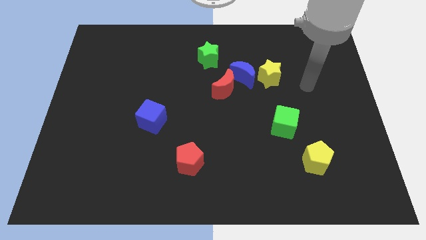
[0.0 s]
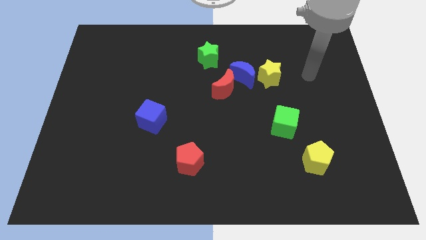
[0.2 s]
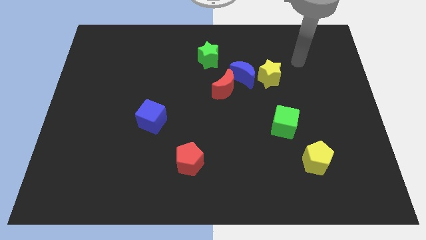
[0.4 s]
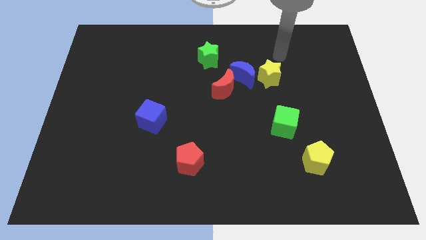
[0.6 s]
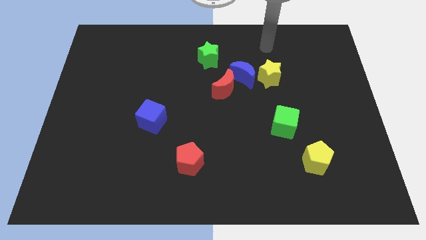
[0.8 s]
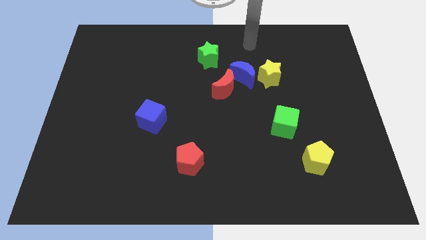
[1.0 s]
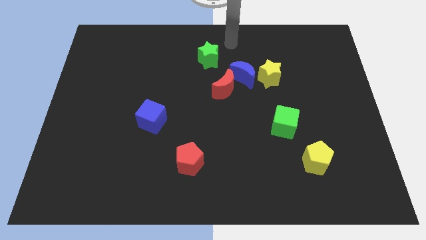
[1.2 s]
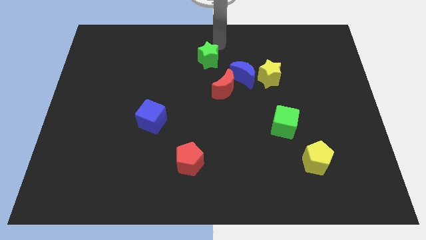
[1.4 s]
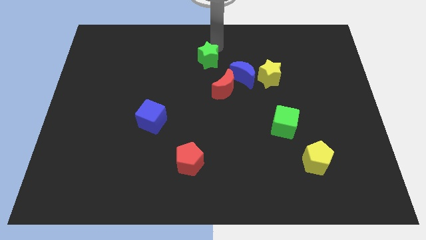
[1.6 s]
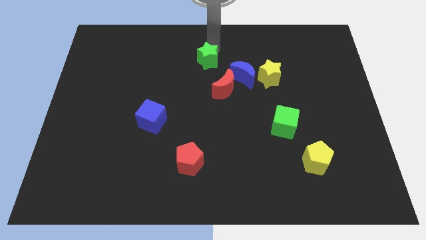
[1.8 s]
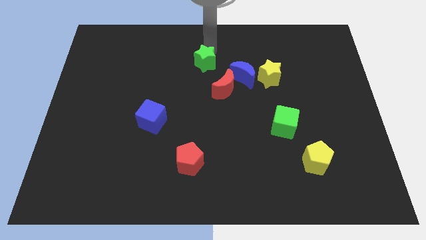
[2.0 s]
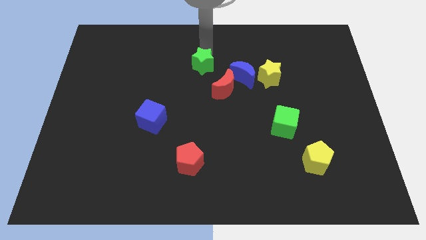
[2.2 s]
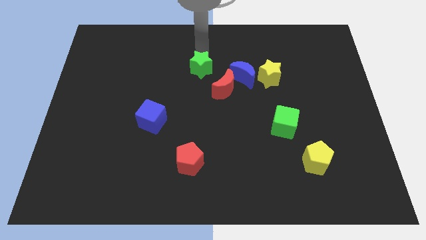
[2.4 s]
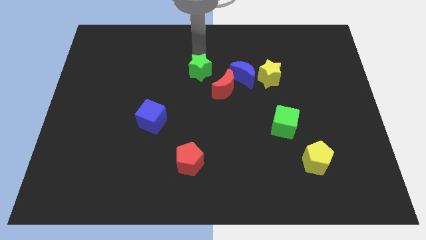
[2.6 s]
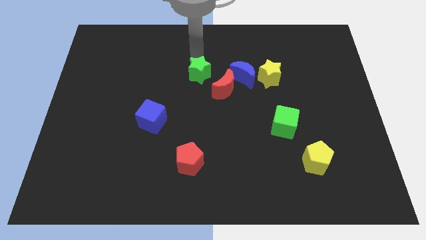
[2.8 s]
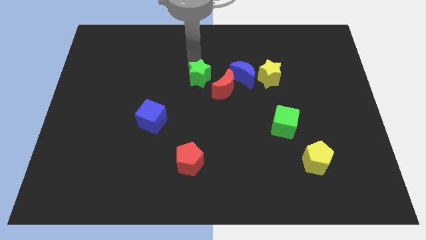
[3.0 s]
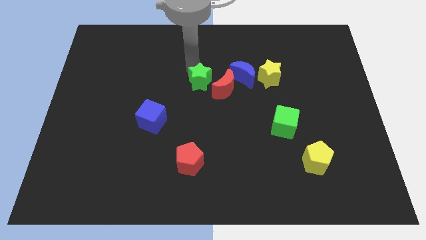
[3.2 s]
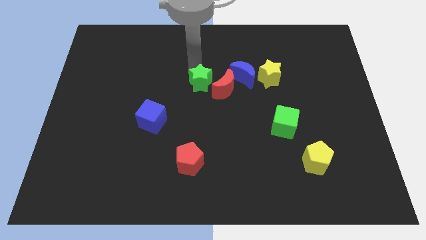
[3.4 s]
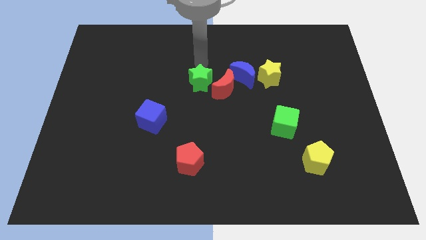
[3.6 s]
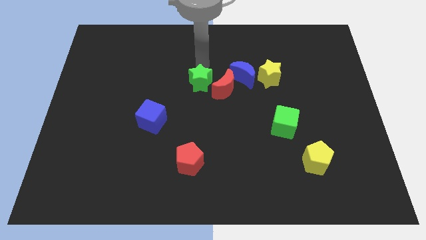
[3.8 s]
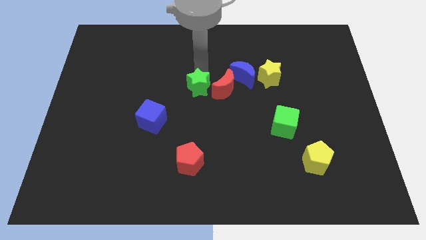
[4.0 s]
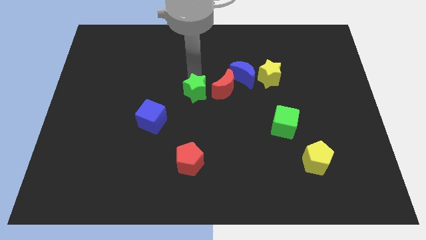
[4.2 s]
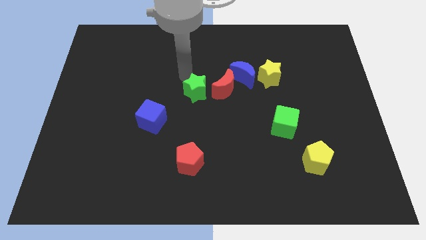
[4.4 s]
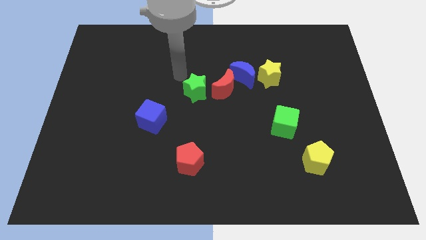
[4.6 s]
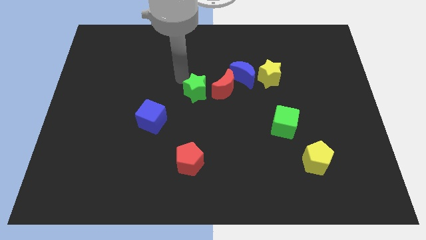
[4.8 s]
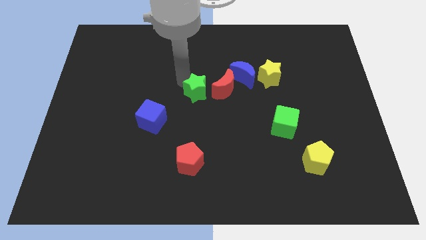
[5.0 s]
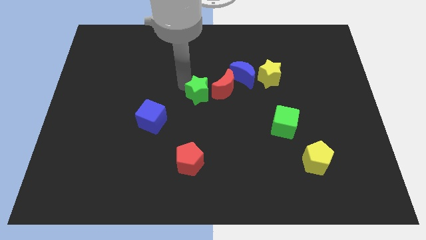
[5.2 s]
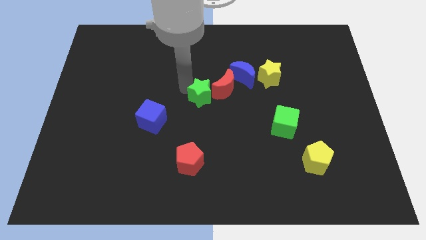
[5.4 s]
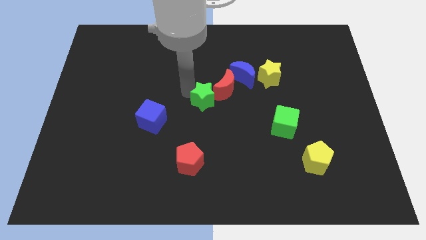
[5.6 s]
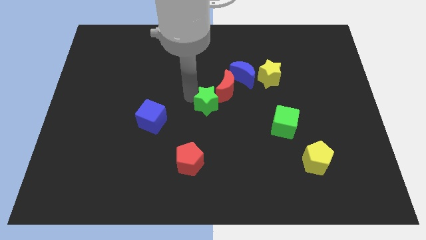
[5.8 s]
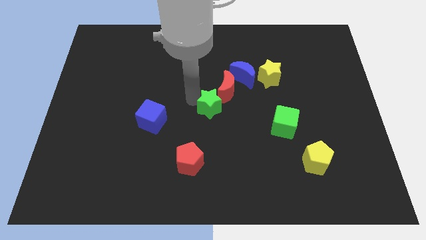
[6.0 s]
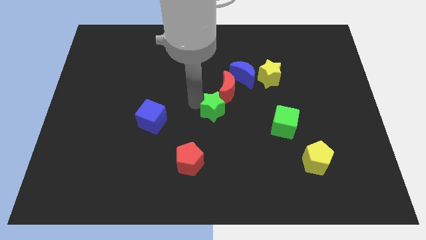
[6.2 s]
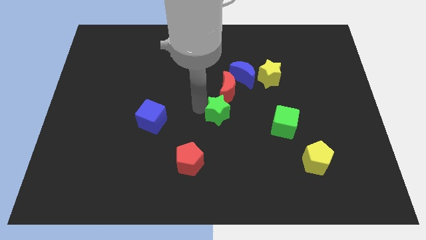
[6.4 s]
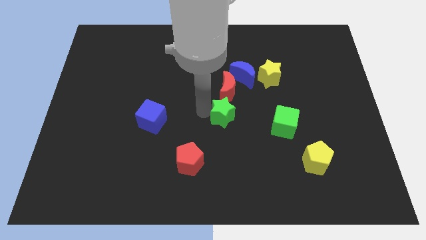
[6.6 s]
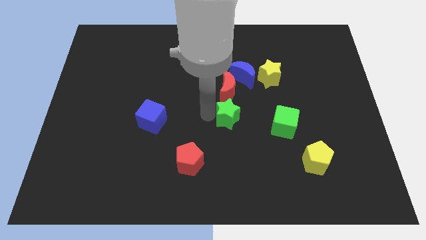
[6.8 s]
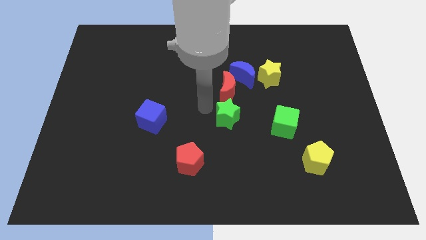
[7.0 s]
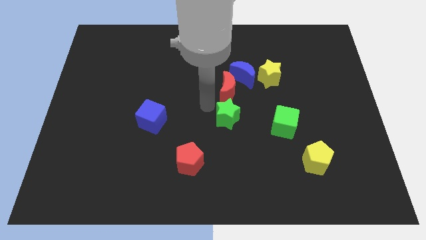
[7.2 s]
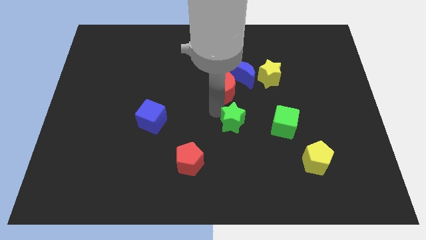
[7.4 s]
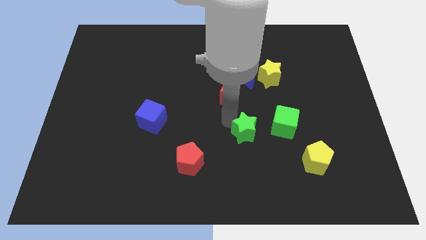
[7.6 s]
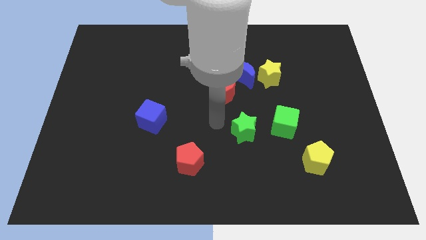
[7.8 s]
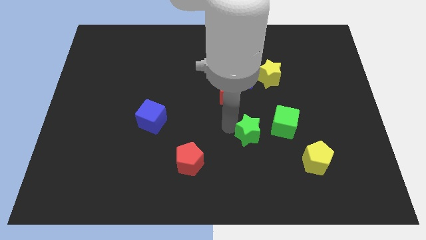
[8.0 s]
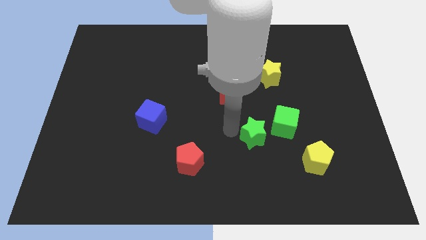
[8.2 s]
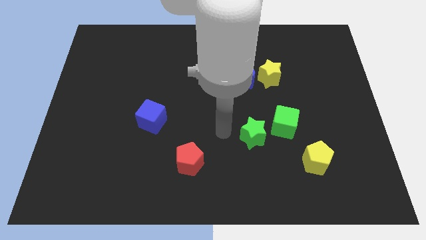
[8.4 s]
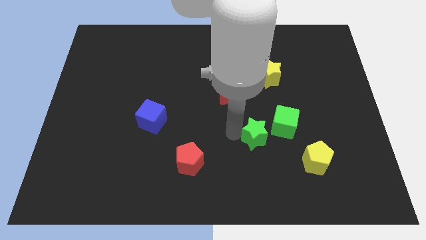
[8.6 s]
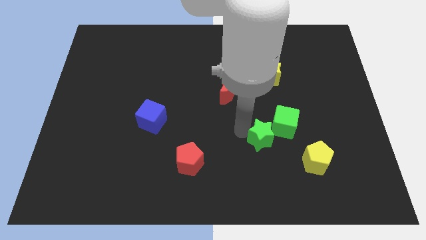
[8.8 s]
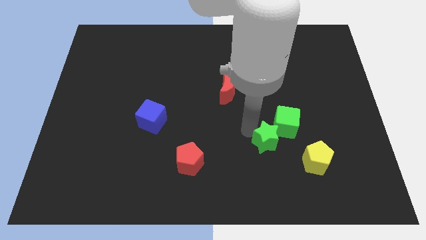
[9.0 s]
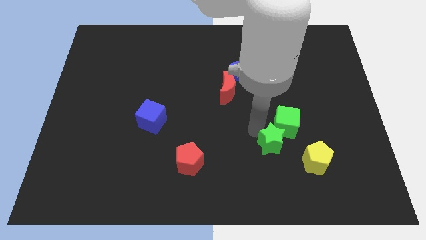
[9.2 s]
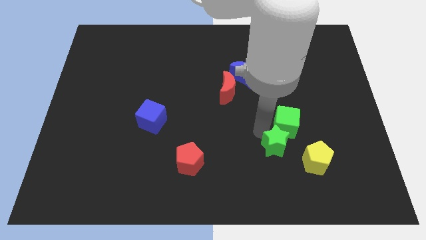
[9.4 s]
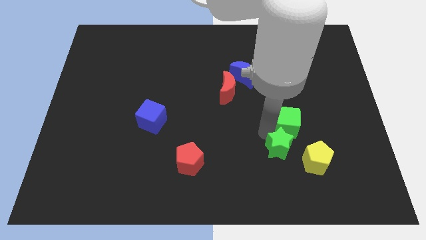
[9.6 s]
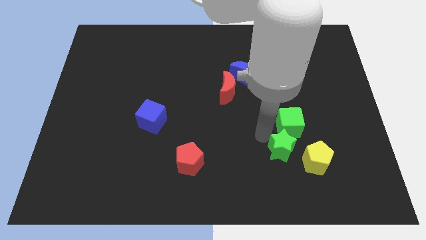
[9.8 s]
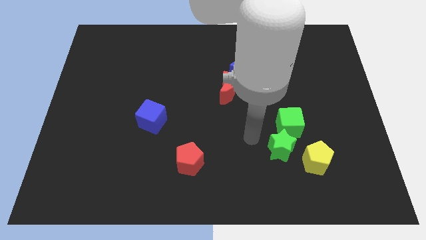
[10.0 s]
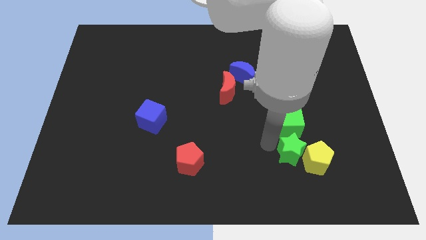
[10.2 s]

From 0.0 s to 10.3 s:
put the green star to the yellow pentagon

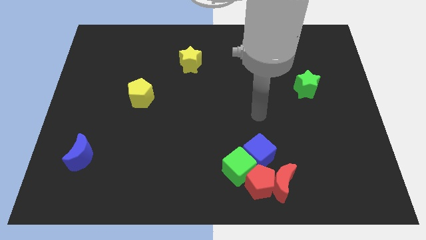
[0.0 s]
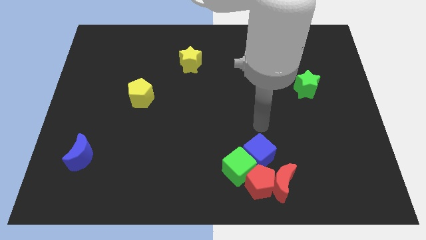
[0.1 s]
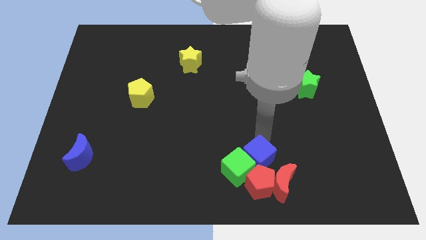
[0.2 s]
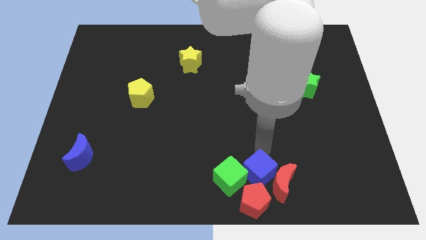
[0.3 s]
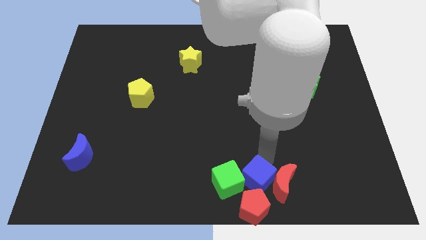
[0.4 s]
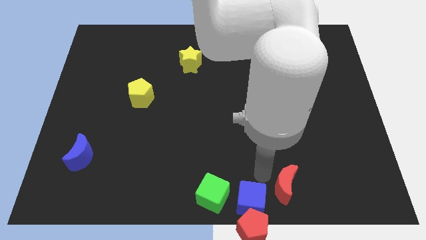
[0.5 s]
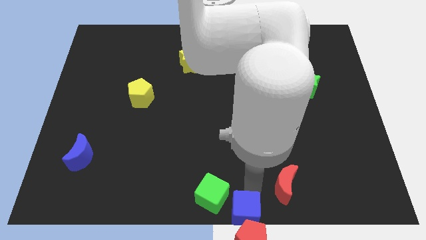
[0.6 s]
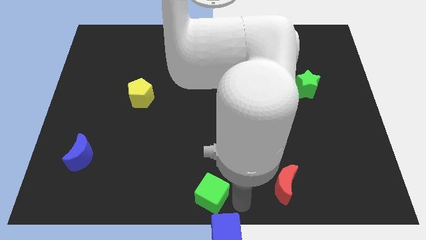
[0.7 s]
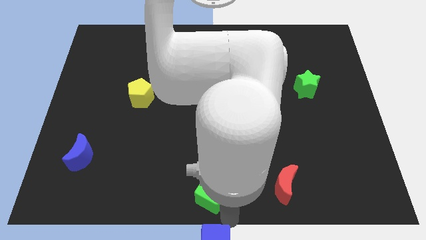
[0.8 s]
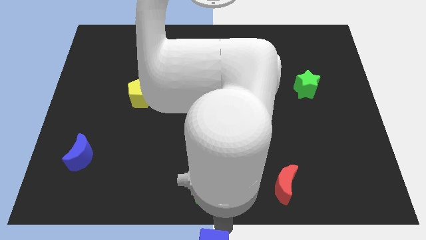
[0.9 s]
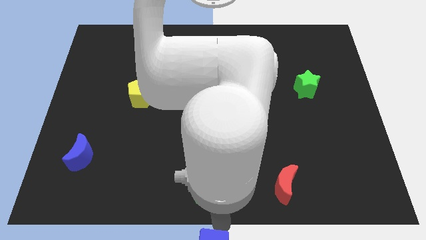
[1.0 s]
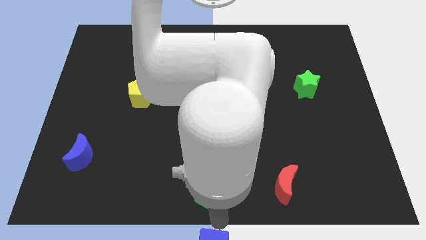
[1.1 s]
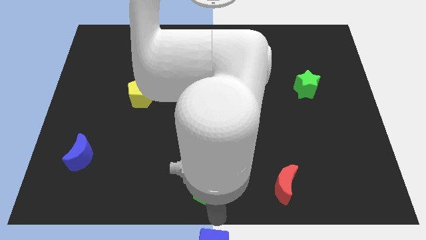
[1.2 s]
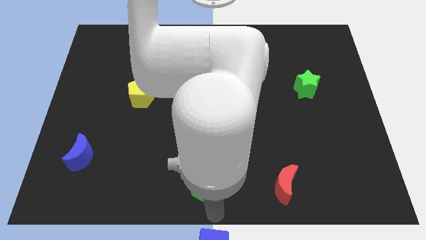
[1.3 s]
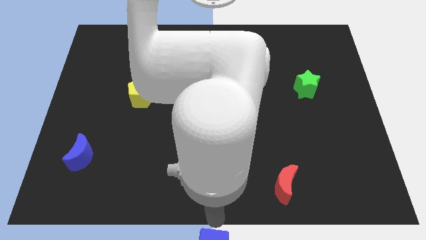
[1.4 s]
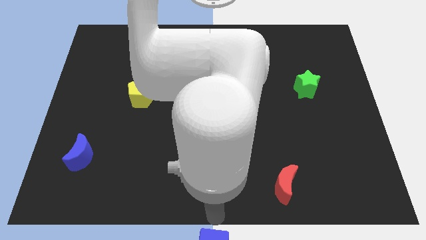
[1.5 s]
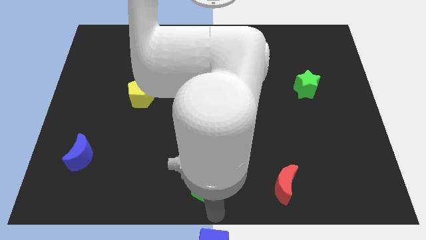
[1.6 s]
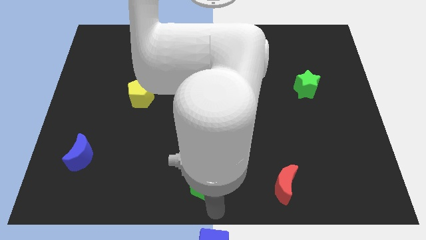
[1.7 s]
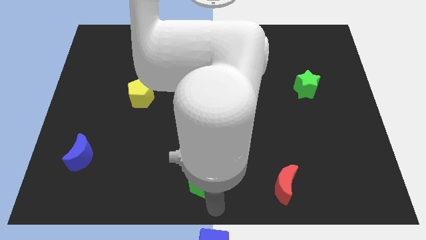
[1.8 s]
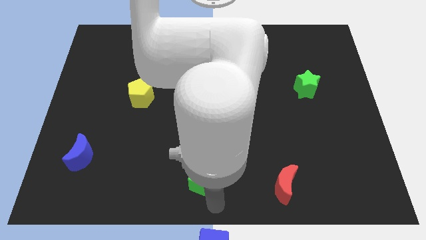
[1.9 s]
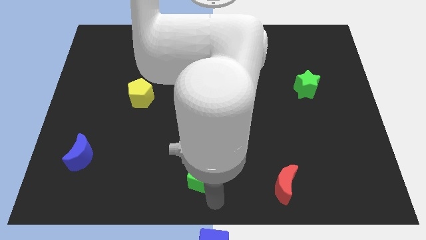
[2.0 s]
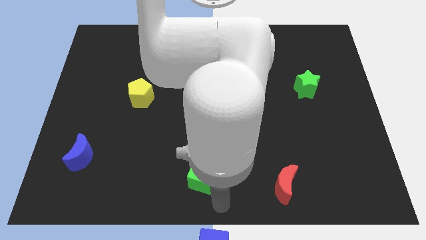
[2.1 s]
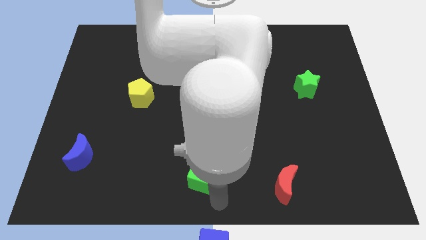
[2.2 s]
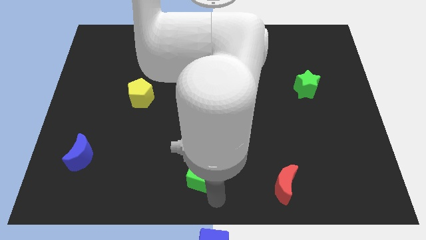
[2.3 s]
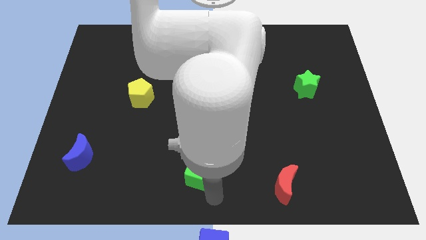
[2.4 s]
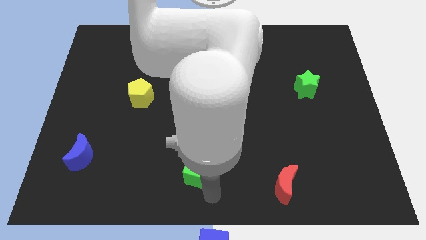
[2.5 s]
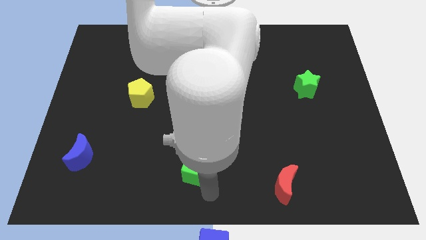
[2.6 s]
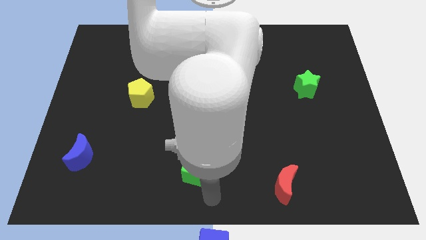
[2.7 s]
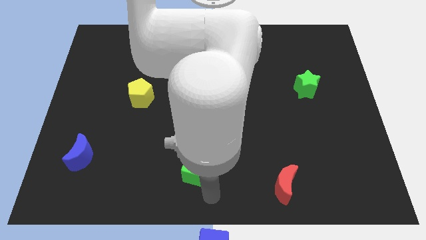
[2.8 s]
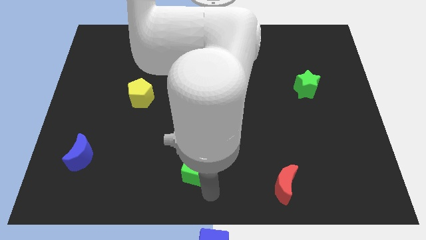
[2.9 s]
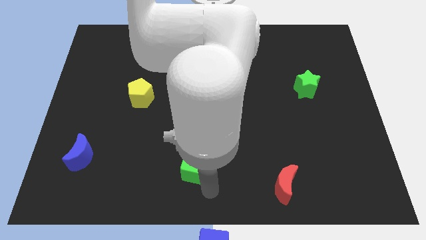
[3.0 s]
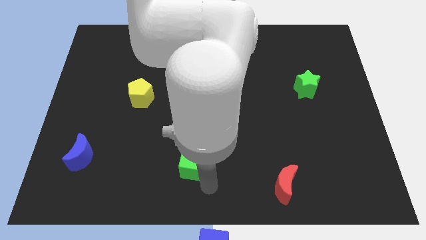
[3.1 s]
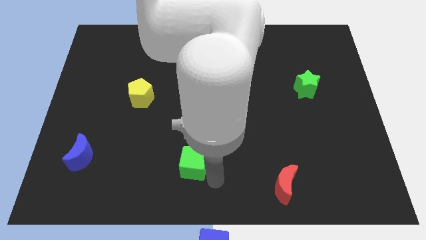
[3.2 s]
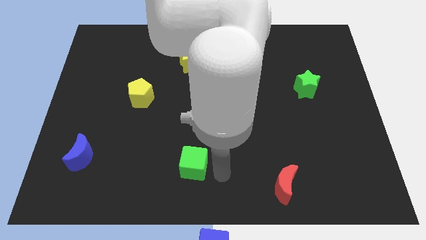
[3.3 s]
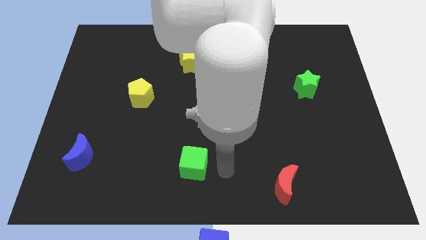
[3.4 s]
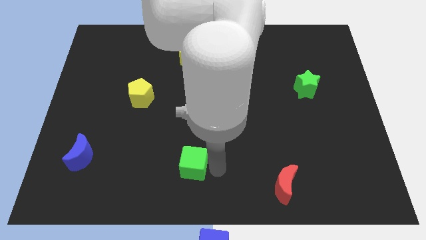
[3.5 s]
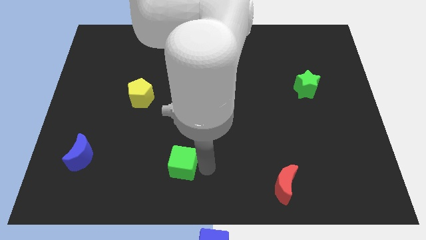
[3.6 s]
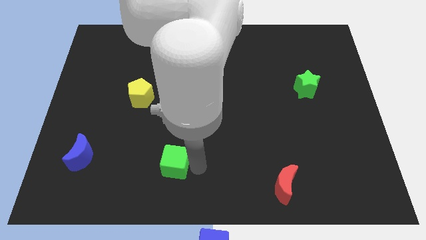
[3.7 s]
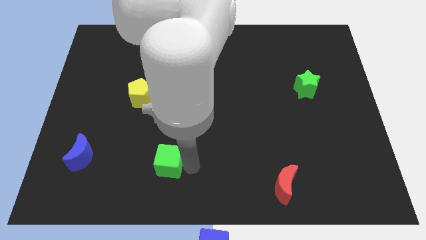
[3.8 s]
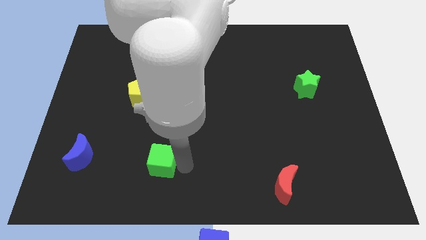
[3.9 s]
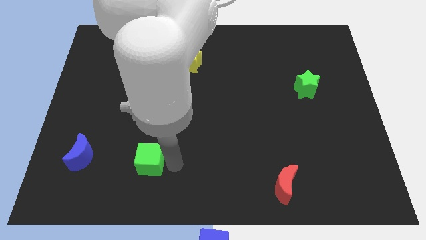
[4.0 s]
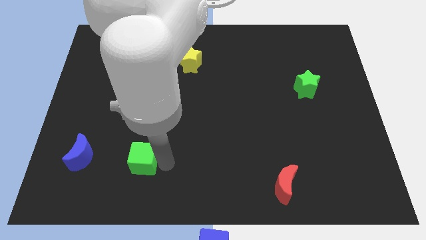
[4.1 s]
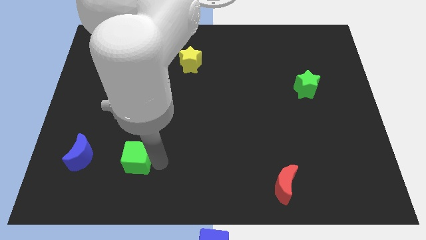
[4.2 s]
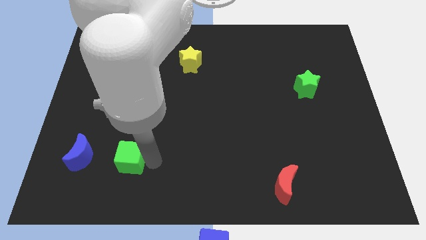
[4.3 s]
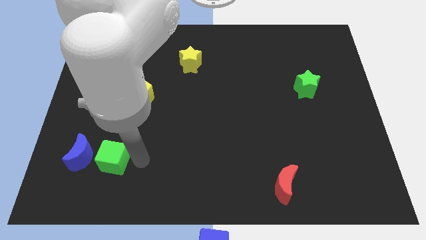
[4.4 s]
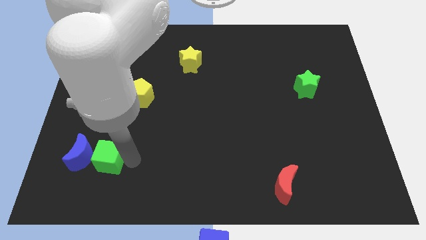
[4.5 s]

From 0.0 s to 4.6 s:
slide the green cube close to the blue moon
